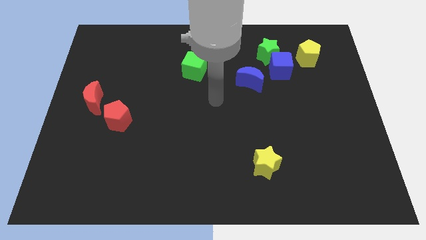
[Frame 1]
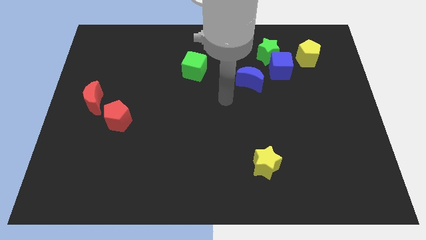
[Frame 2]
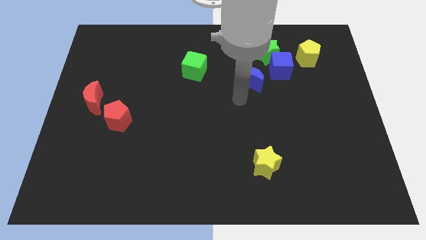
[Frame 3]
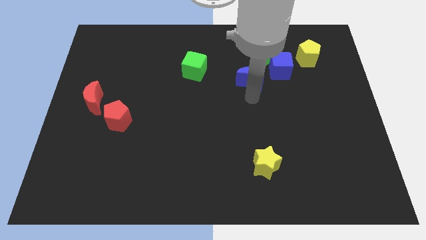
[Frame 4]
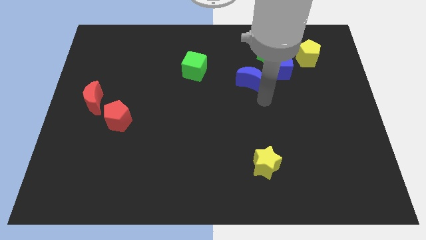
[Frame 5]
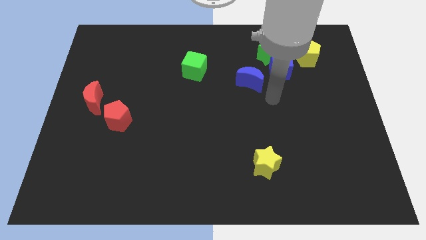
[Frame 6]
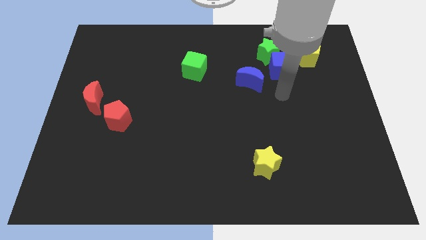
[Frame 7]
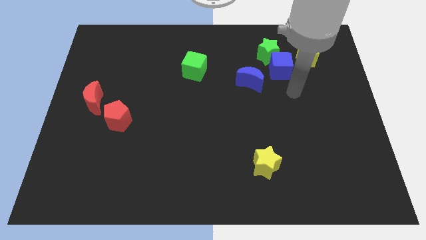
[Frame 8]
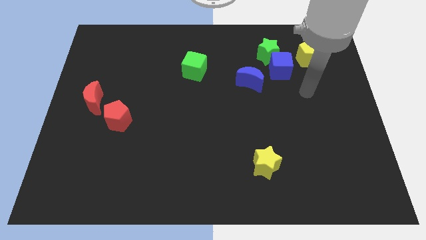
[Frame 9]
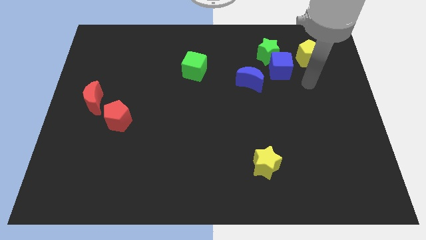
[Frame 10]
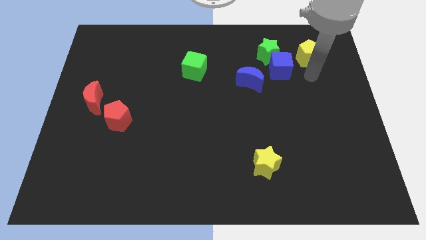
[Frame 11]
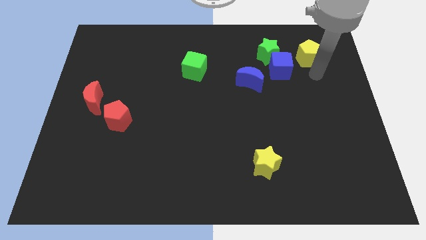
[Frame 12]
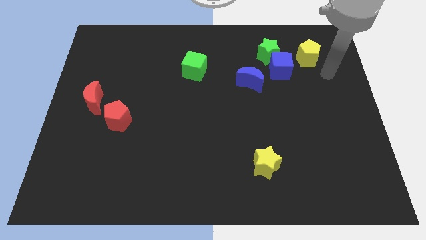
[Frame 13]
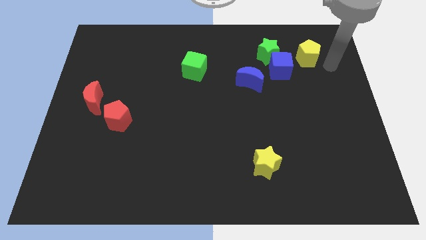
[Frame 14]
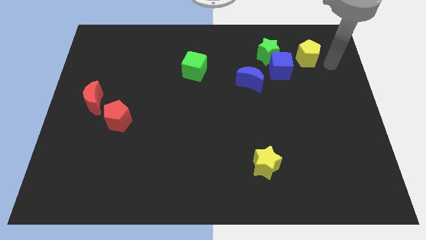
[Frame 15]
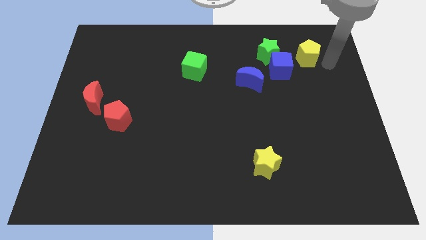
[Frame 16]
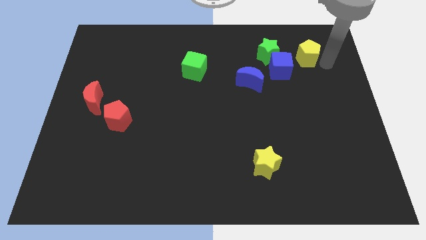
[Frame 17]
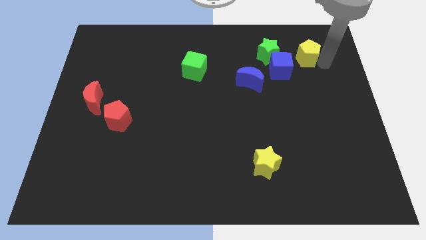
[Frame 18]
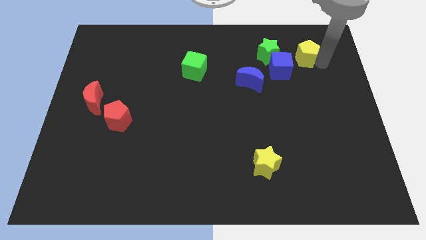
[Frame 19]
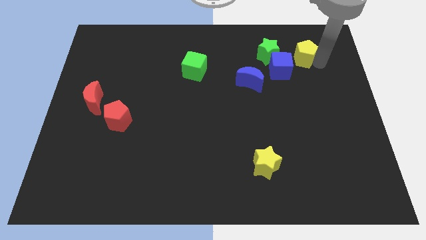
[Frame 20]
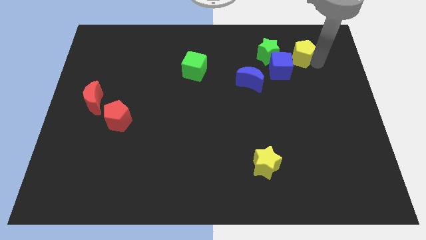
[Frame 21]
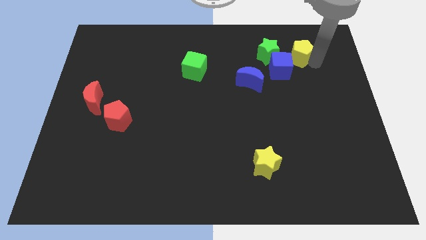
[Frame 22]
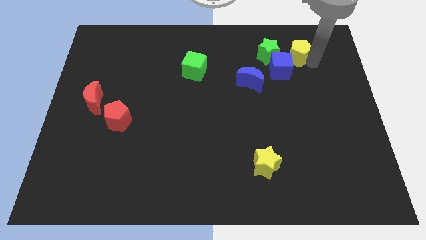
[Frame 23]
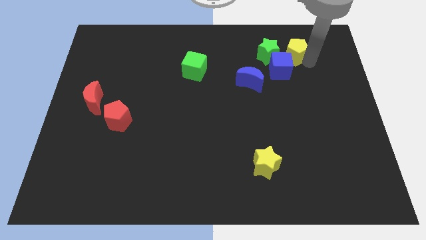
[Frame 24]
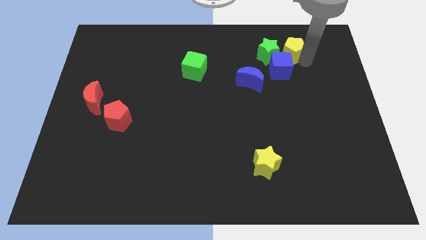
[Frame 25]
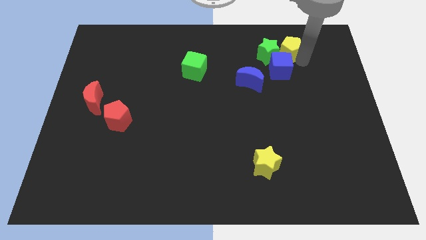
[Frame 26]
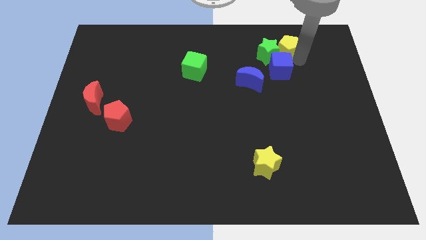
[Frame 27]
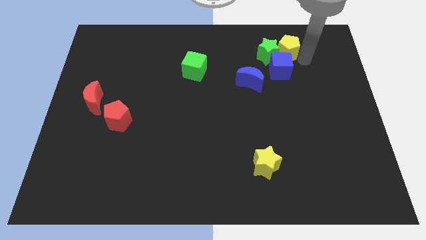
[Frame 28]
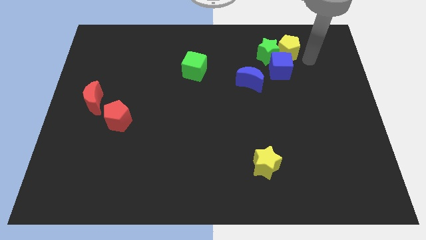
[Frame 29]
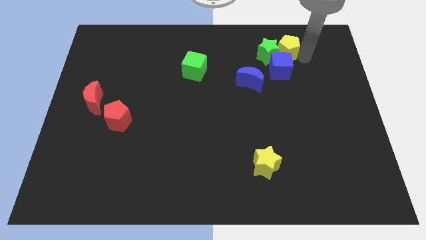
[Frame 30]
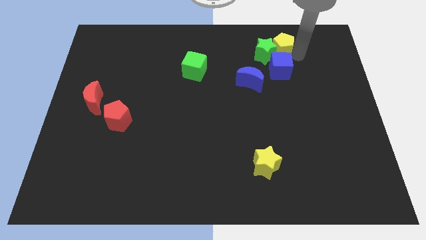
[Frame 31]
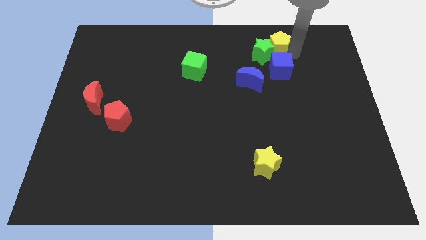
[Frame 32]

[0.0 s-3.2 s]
move the yellow pentagon to the left a bit

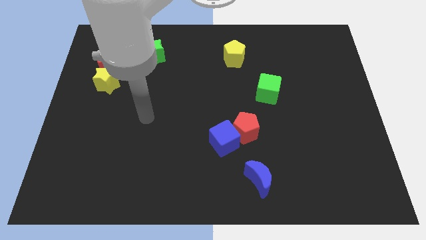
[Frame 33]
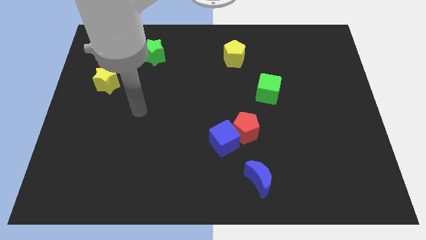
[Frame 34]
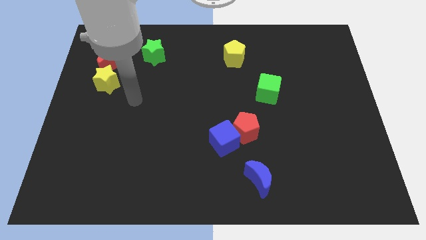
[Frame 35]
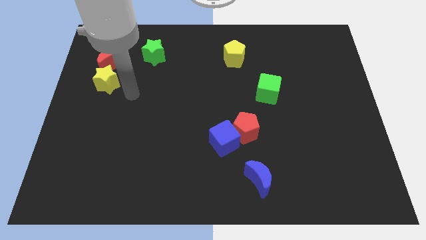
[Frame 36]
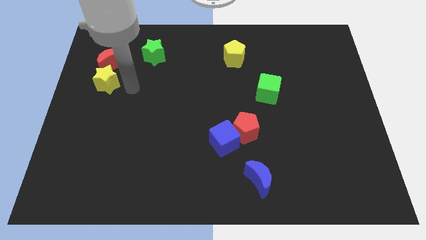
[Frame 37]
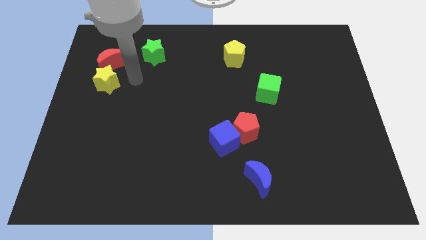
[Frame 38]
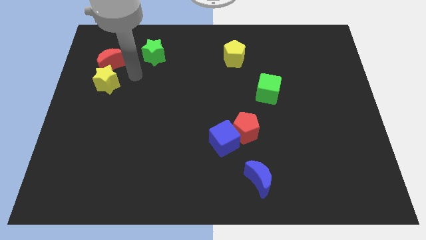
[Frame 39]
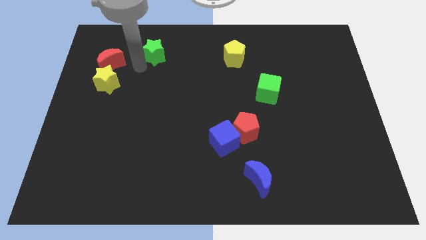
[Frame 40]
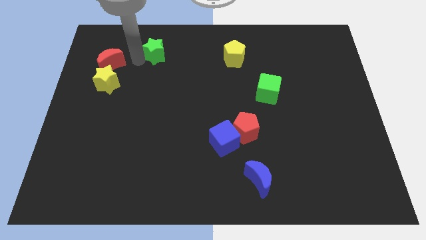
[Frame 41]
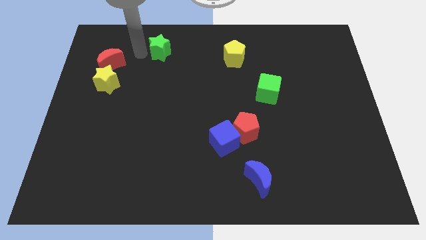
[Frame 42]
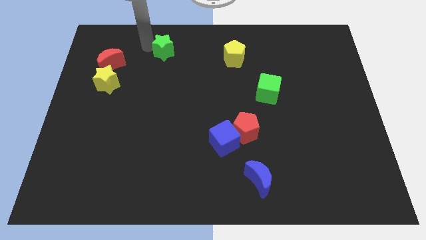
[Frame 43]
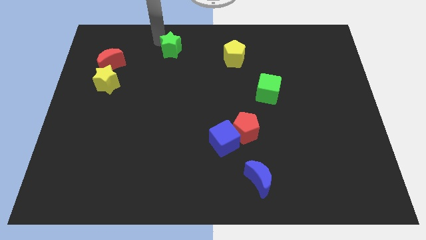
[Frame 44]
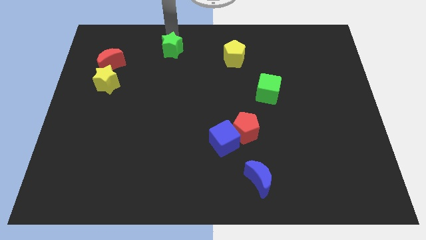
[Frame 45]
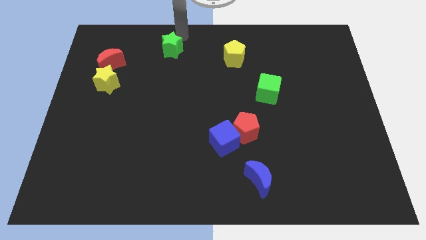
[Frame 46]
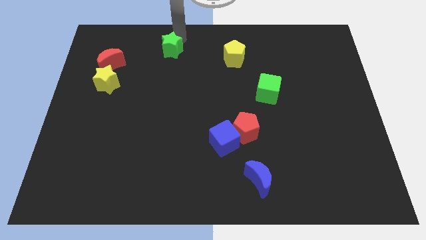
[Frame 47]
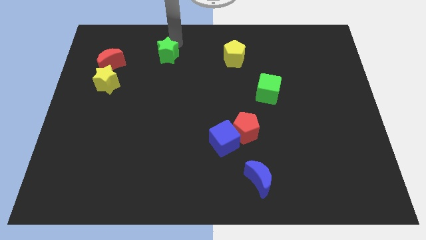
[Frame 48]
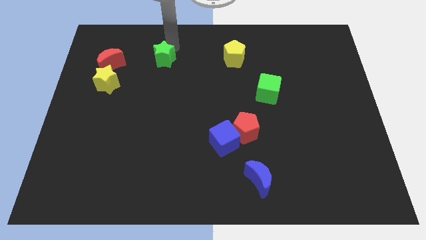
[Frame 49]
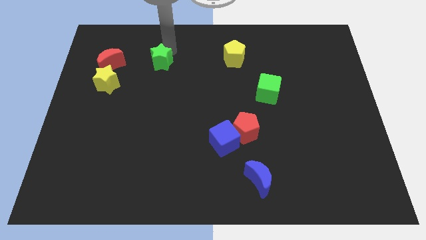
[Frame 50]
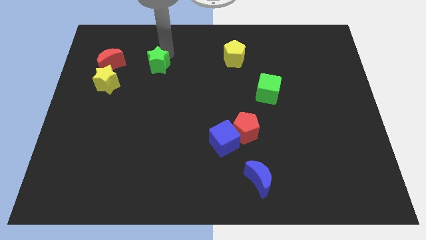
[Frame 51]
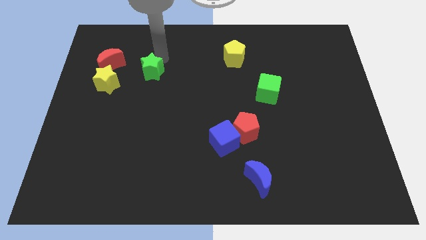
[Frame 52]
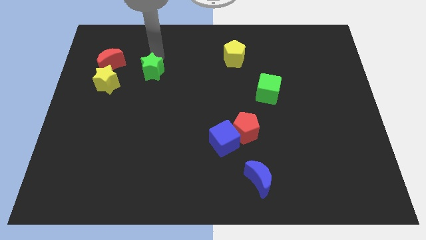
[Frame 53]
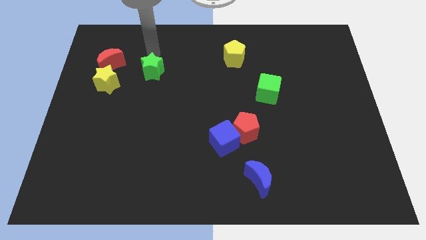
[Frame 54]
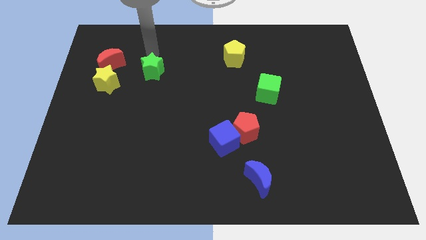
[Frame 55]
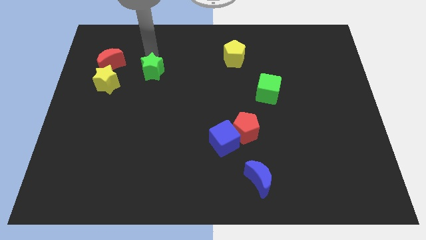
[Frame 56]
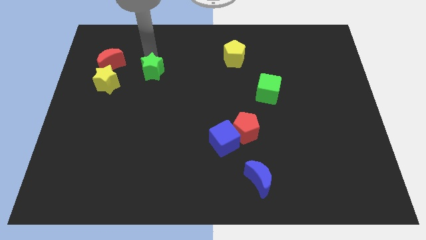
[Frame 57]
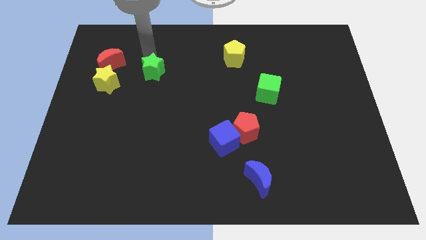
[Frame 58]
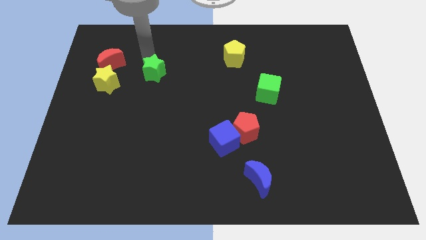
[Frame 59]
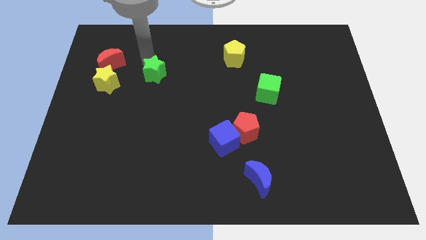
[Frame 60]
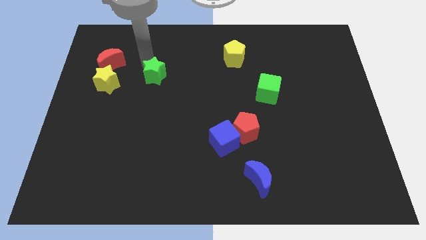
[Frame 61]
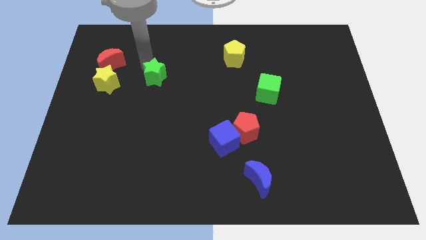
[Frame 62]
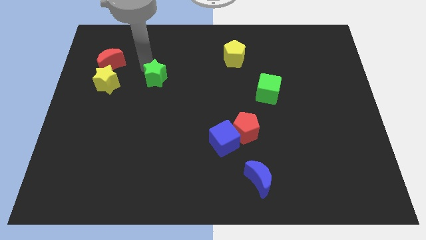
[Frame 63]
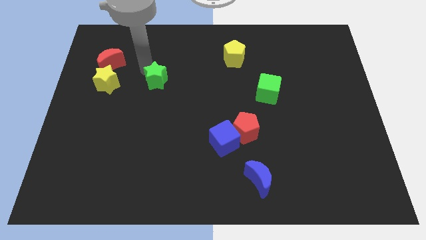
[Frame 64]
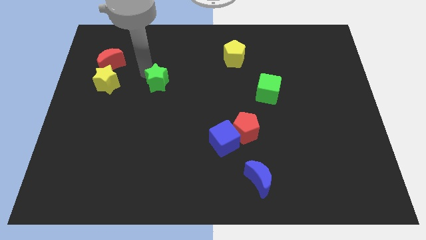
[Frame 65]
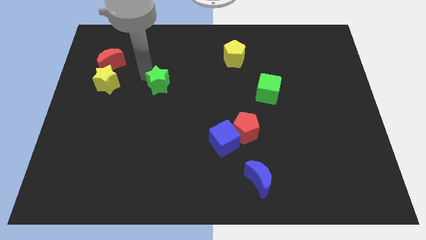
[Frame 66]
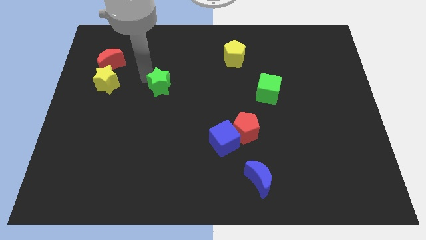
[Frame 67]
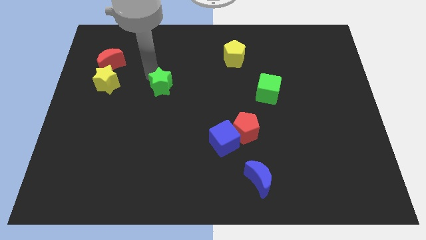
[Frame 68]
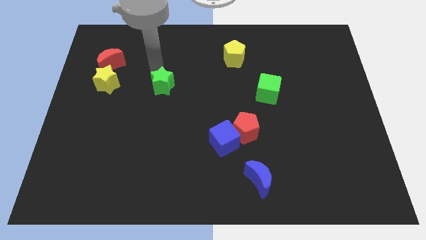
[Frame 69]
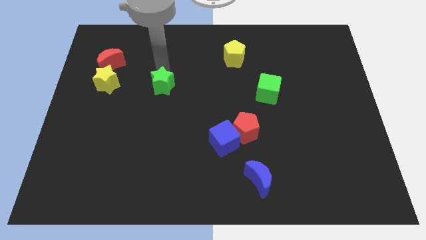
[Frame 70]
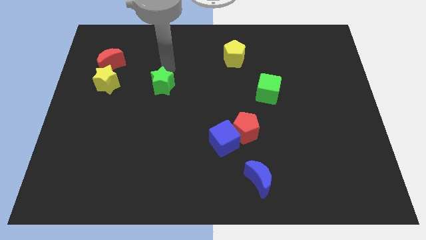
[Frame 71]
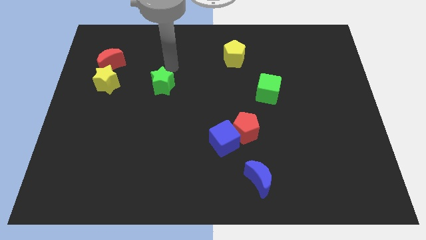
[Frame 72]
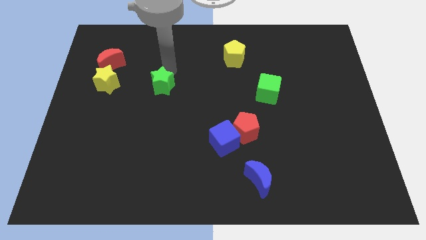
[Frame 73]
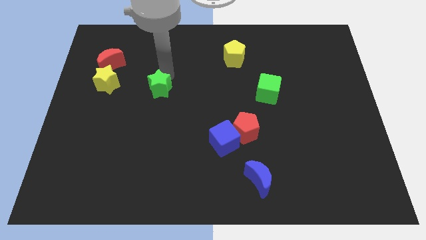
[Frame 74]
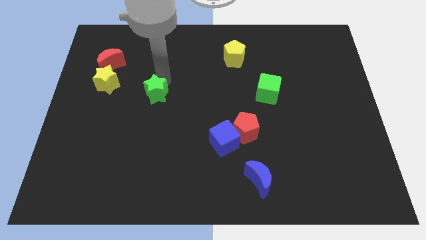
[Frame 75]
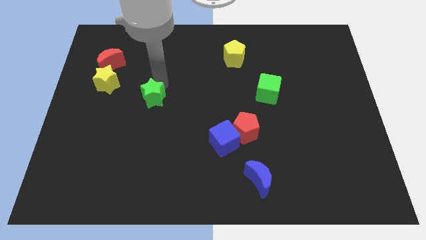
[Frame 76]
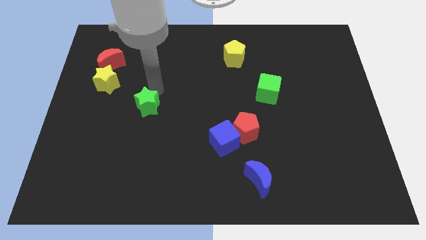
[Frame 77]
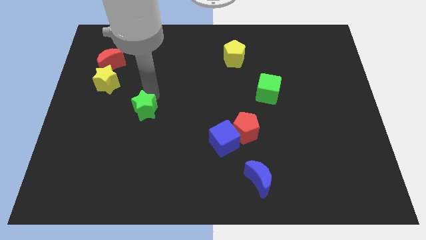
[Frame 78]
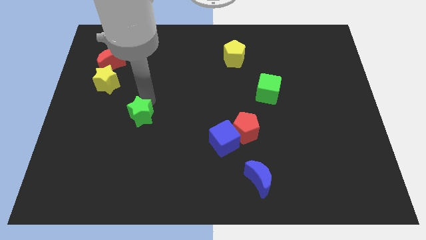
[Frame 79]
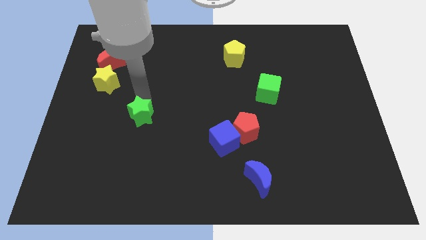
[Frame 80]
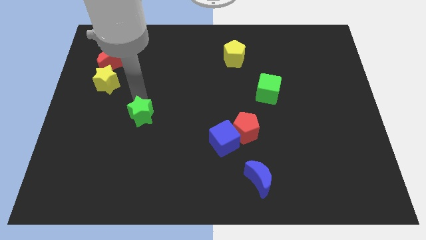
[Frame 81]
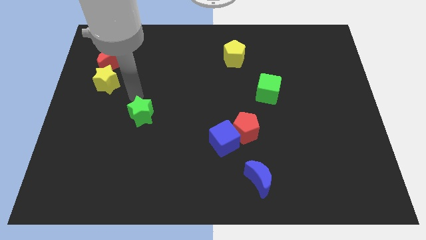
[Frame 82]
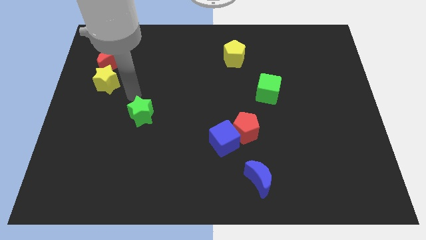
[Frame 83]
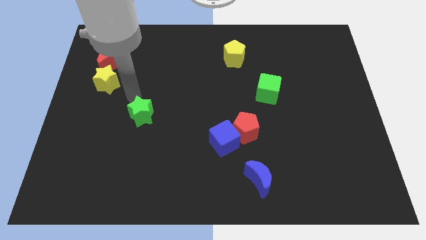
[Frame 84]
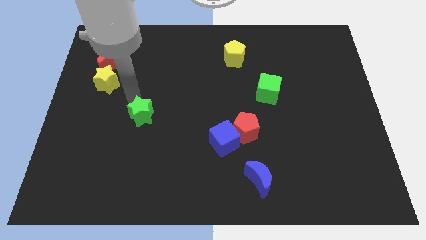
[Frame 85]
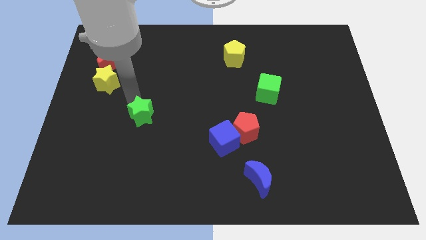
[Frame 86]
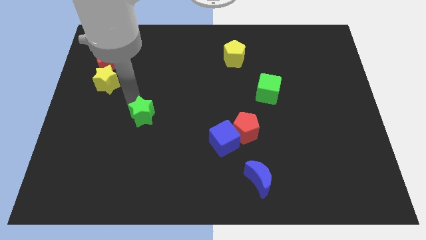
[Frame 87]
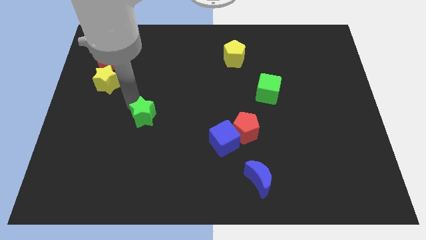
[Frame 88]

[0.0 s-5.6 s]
push the green star down
